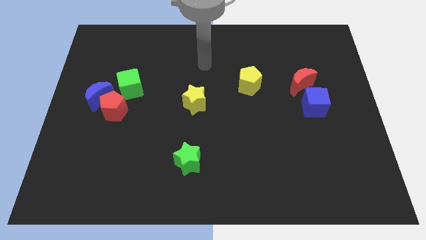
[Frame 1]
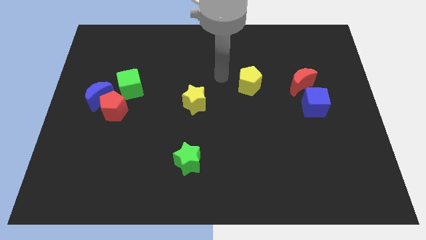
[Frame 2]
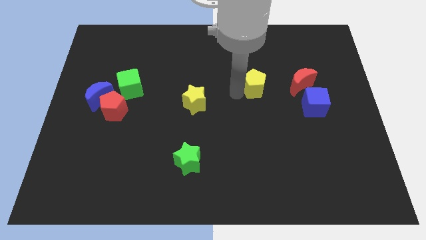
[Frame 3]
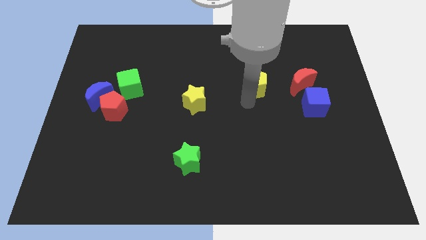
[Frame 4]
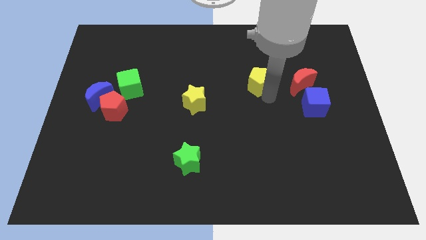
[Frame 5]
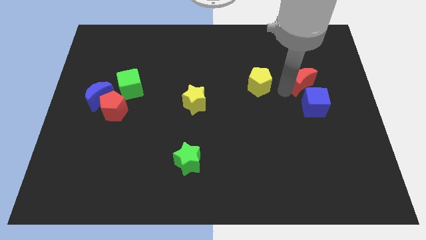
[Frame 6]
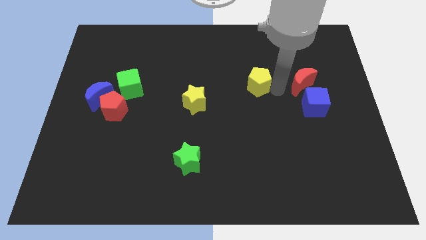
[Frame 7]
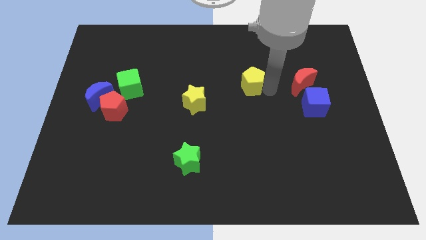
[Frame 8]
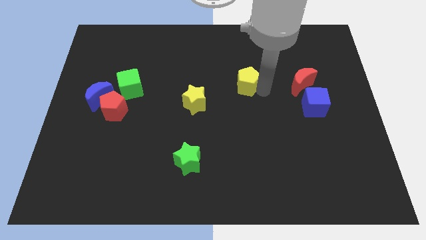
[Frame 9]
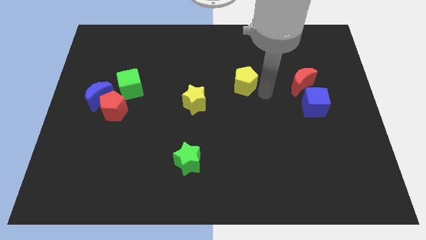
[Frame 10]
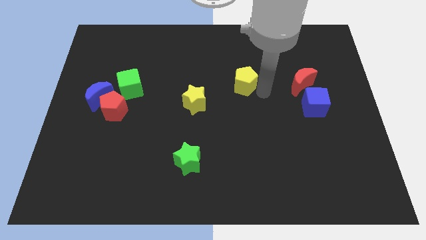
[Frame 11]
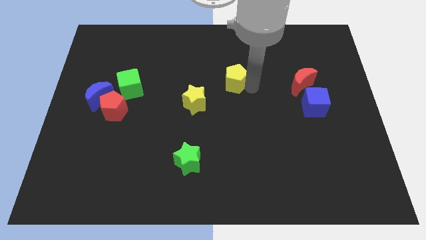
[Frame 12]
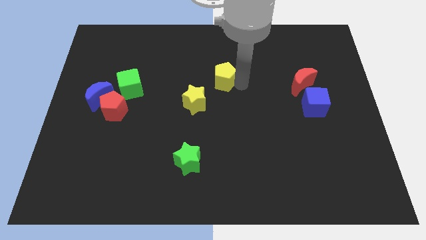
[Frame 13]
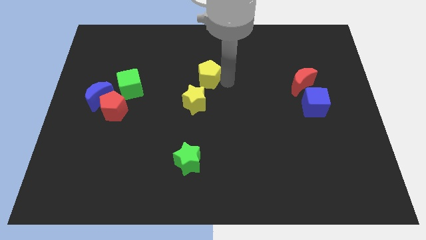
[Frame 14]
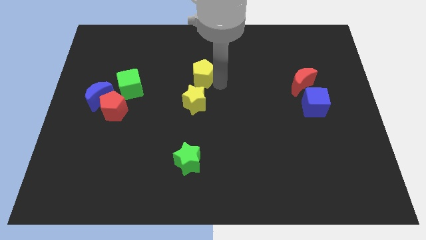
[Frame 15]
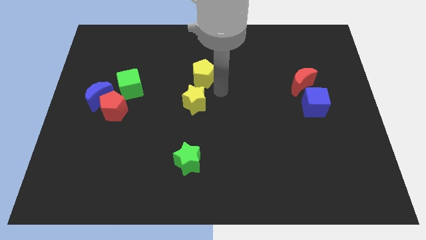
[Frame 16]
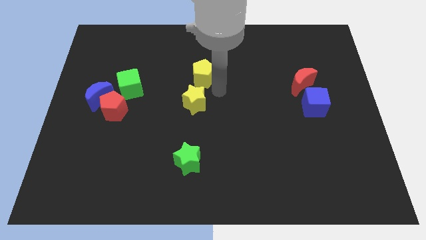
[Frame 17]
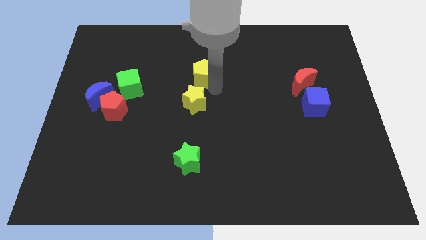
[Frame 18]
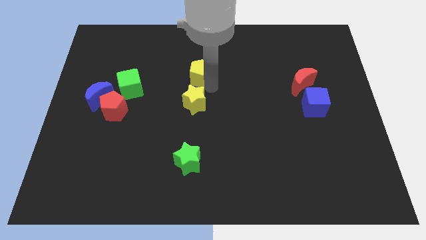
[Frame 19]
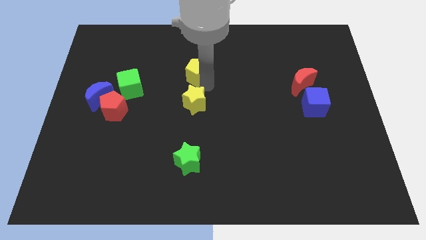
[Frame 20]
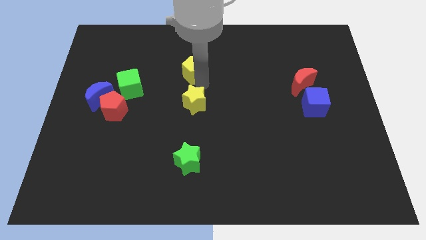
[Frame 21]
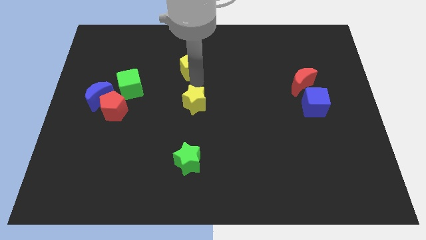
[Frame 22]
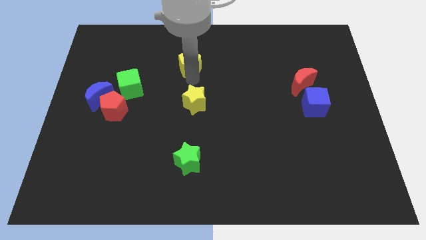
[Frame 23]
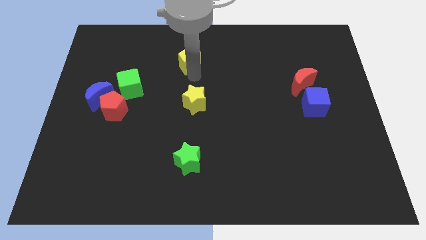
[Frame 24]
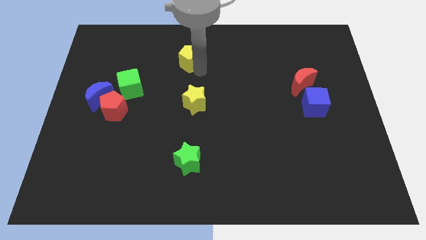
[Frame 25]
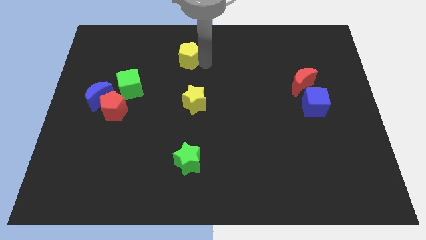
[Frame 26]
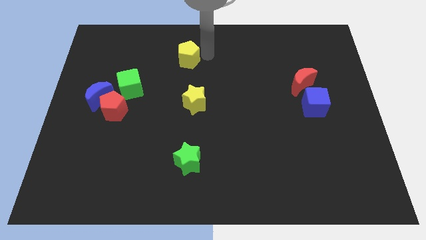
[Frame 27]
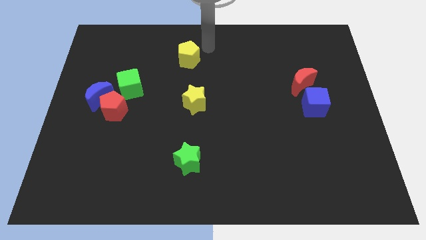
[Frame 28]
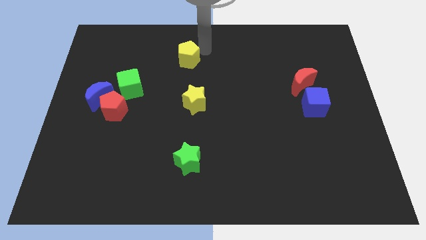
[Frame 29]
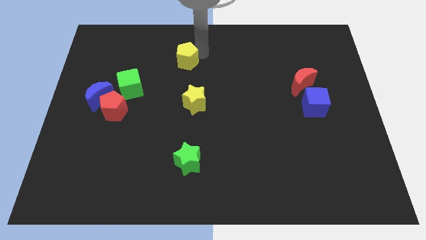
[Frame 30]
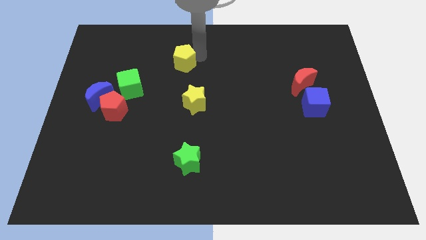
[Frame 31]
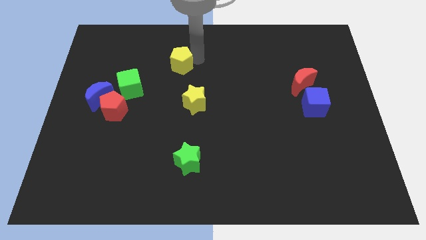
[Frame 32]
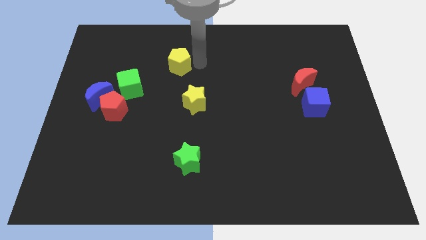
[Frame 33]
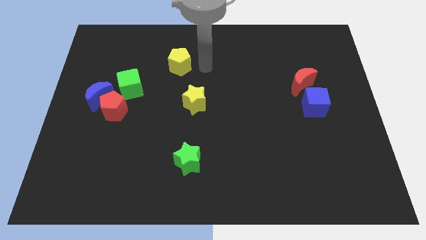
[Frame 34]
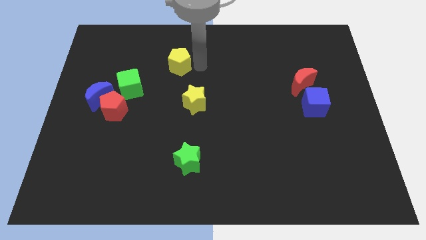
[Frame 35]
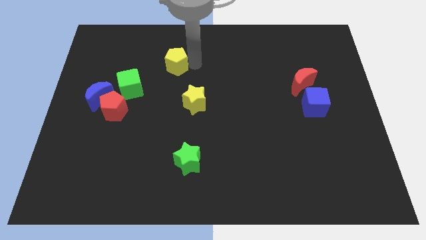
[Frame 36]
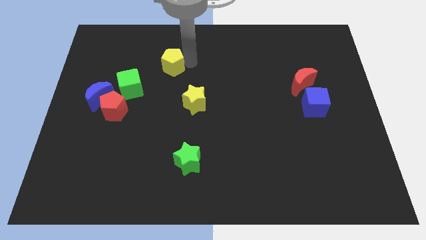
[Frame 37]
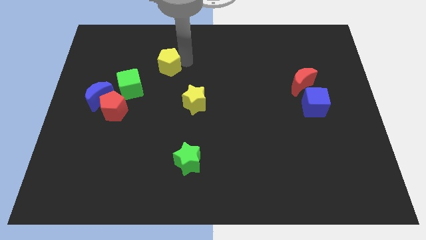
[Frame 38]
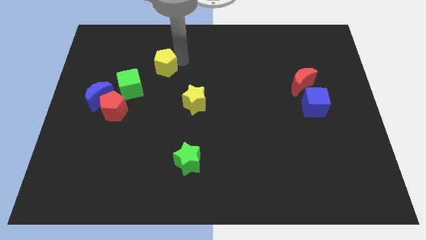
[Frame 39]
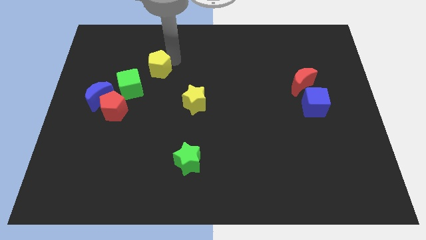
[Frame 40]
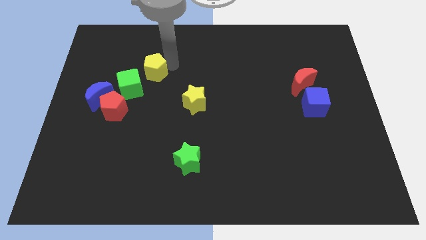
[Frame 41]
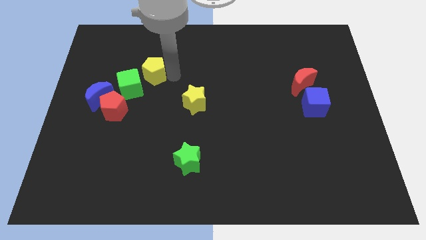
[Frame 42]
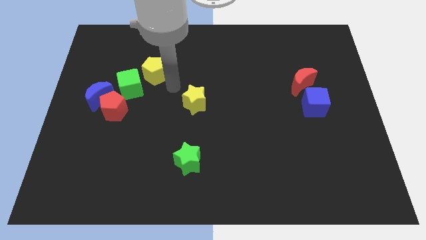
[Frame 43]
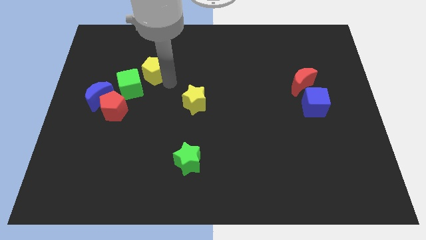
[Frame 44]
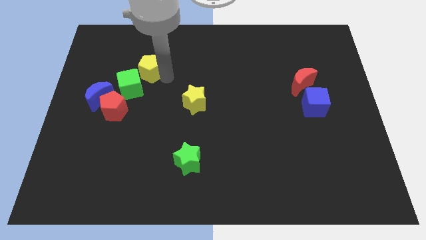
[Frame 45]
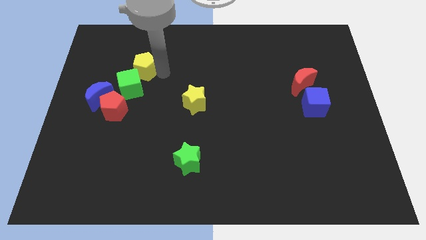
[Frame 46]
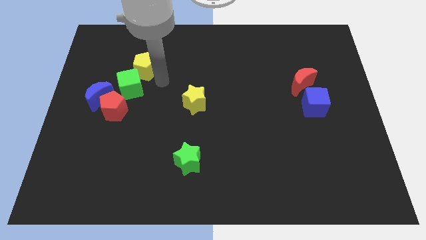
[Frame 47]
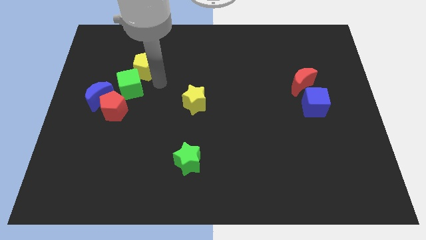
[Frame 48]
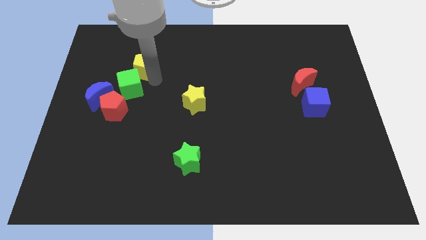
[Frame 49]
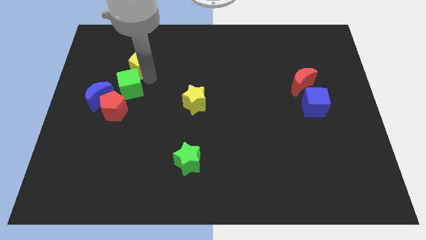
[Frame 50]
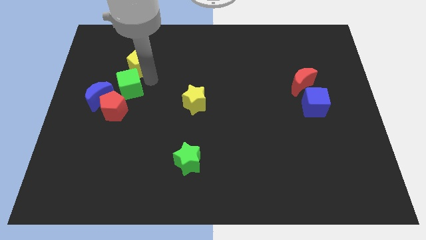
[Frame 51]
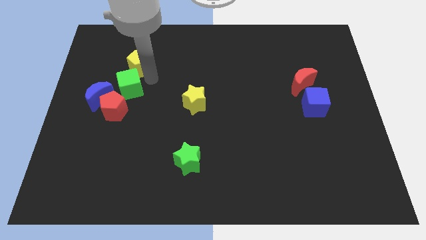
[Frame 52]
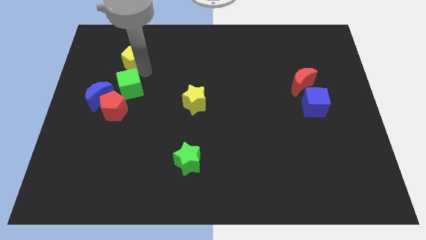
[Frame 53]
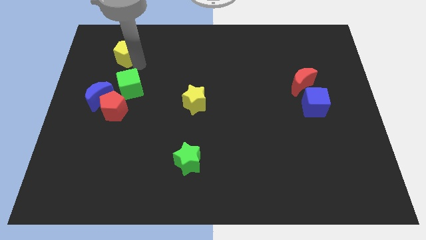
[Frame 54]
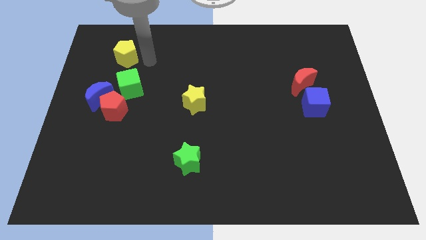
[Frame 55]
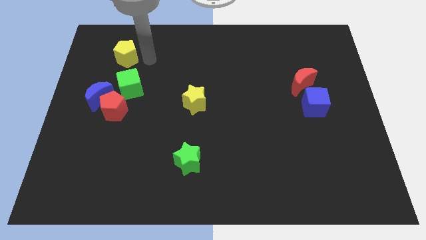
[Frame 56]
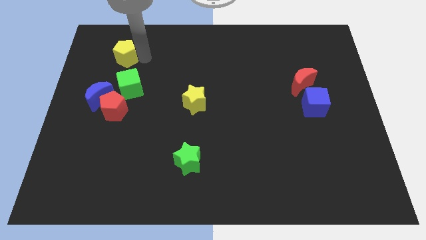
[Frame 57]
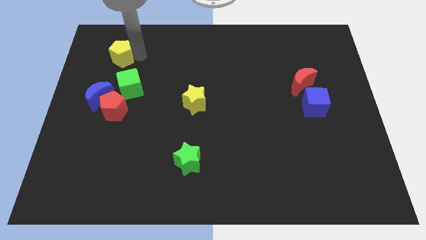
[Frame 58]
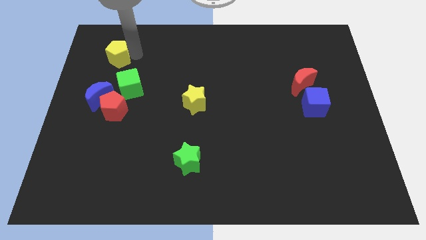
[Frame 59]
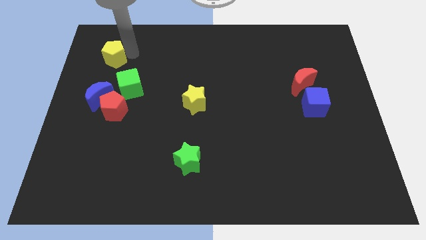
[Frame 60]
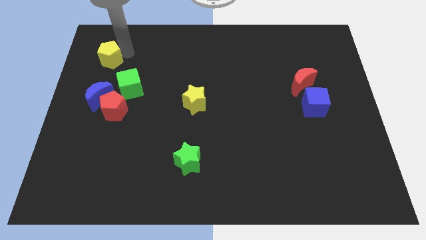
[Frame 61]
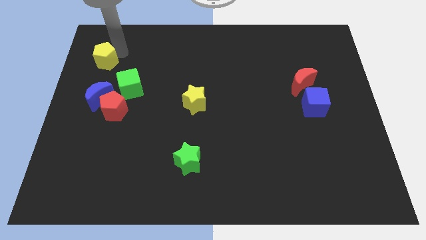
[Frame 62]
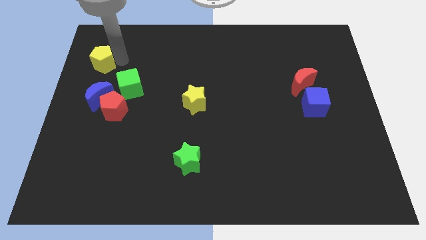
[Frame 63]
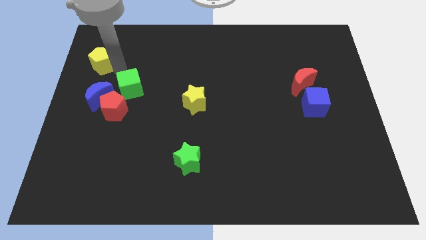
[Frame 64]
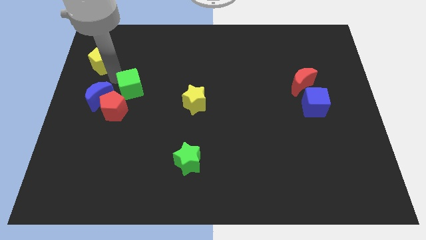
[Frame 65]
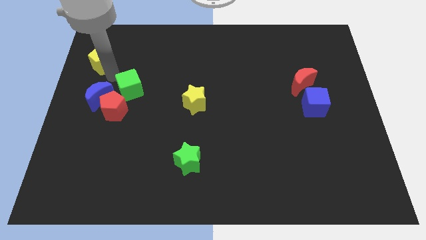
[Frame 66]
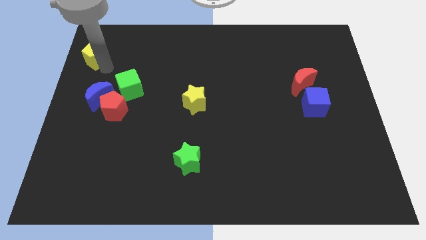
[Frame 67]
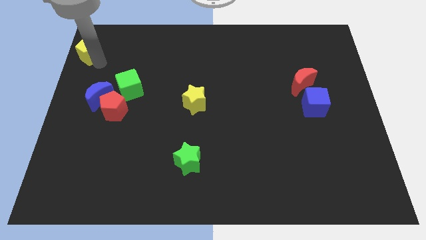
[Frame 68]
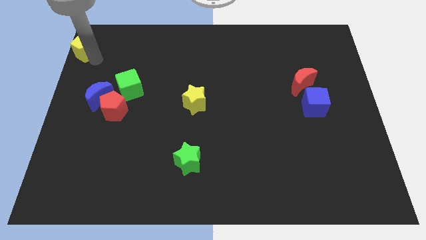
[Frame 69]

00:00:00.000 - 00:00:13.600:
push the yellow pentagon to the top left corner

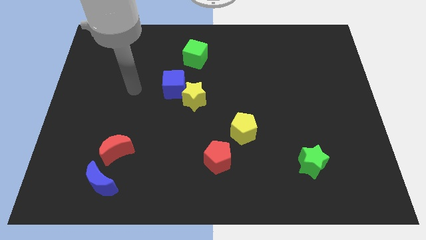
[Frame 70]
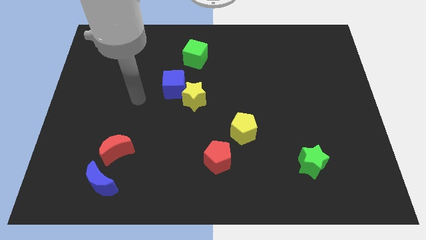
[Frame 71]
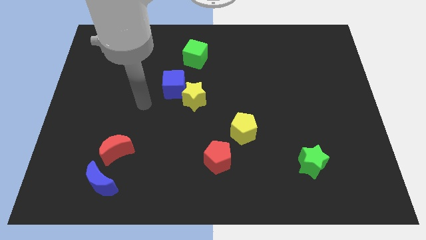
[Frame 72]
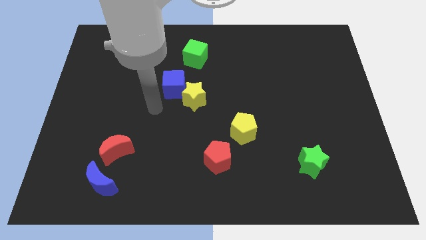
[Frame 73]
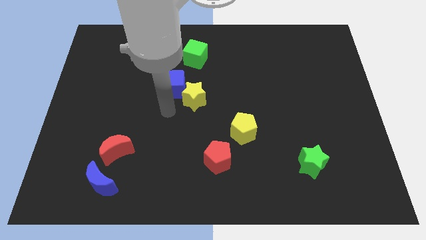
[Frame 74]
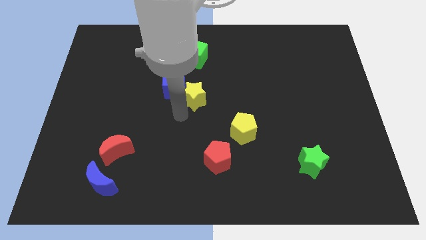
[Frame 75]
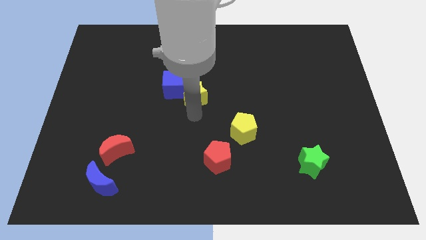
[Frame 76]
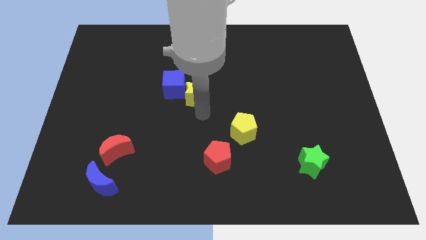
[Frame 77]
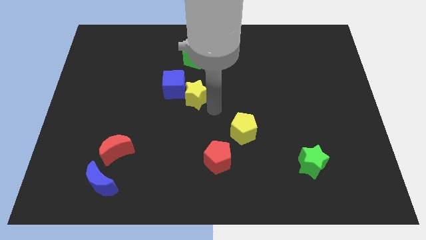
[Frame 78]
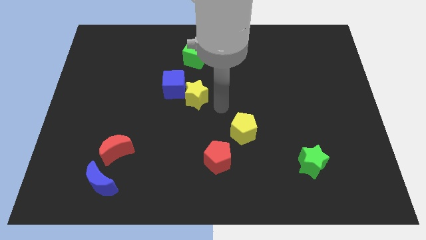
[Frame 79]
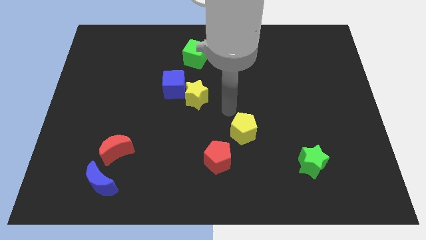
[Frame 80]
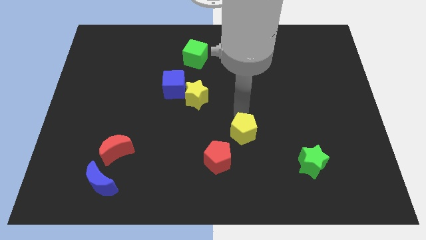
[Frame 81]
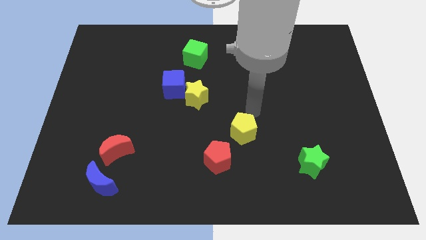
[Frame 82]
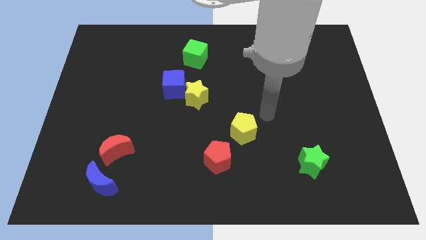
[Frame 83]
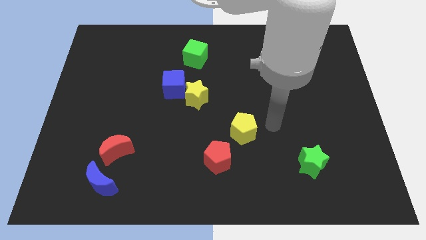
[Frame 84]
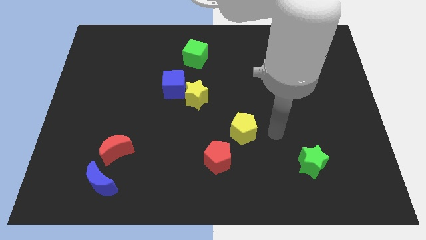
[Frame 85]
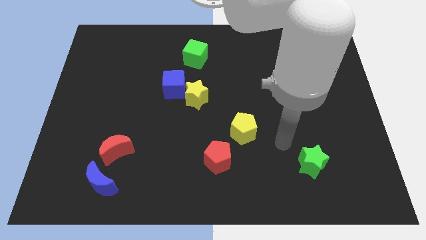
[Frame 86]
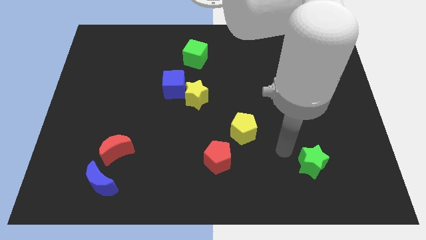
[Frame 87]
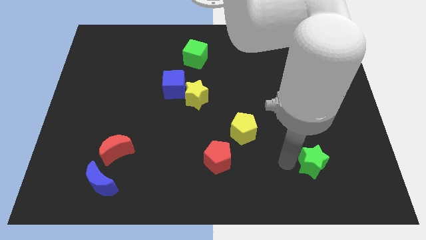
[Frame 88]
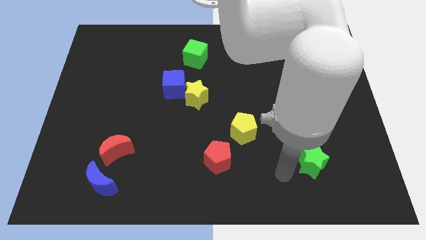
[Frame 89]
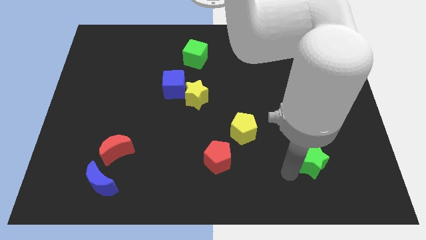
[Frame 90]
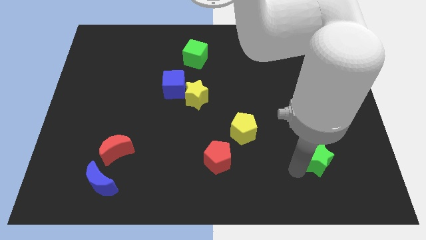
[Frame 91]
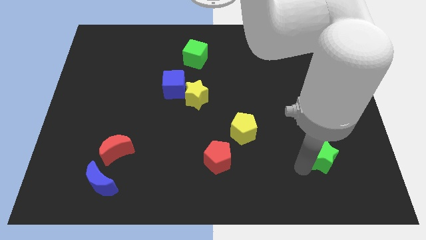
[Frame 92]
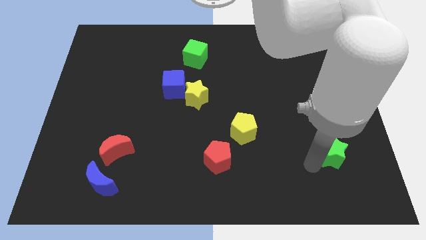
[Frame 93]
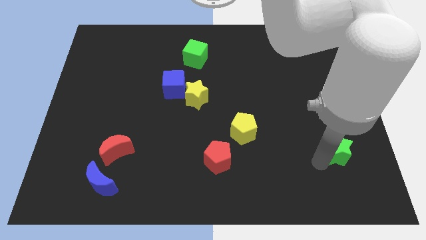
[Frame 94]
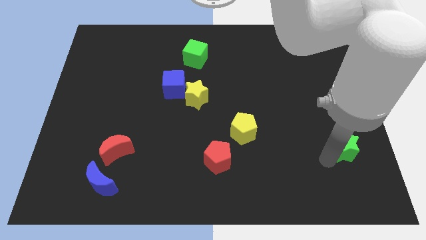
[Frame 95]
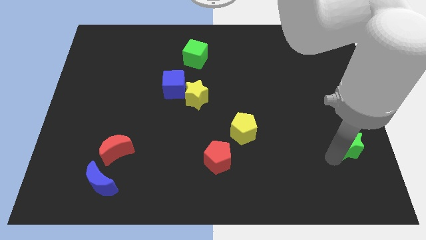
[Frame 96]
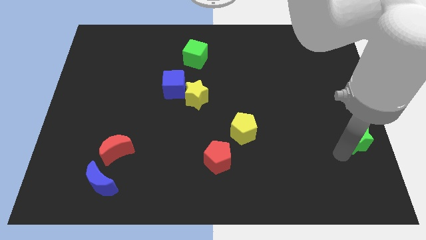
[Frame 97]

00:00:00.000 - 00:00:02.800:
push the green star to the right side
